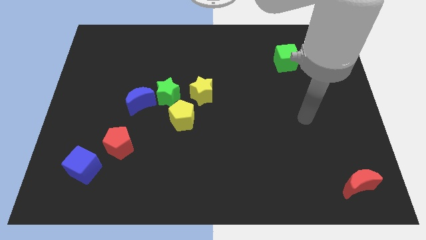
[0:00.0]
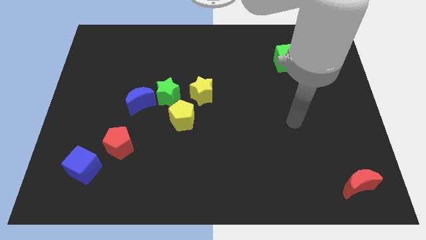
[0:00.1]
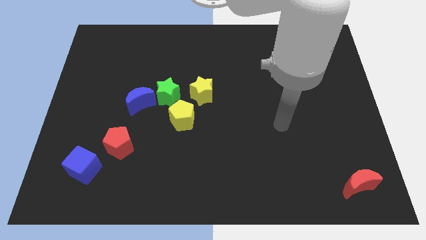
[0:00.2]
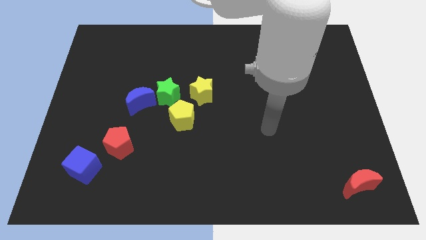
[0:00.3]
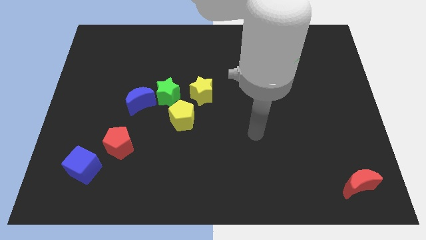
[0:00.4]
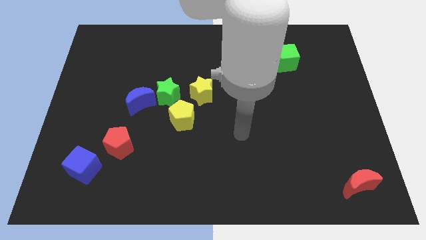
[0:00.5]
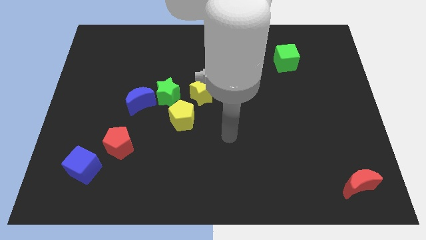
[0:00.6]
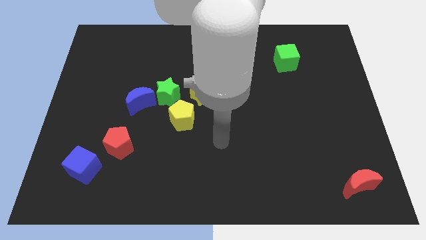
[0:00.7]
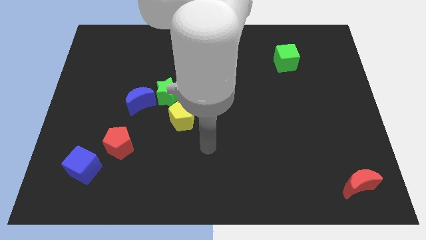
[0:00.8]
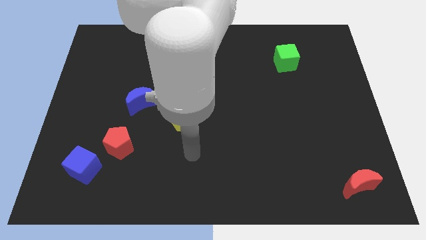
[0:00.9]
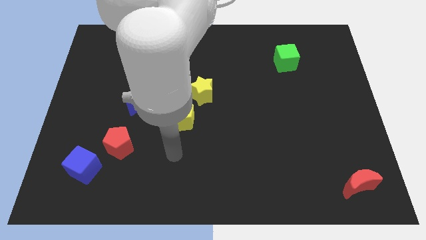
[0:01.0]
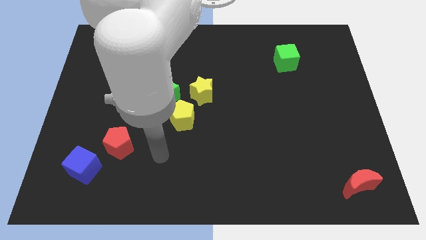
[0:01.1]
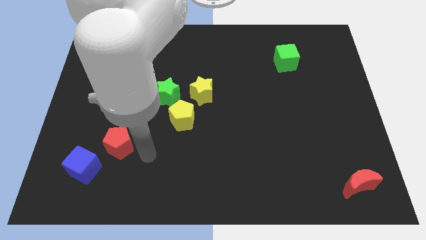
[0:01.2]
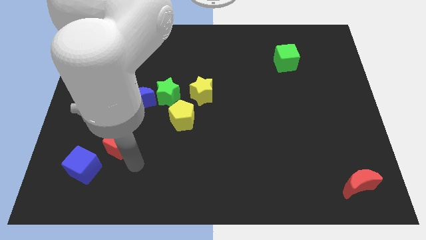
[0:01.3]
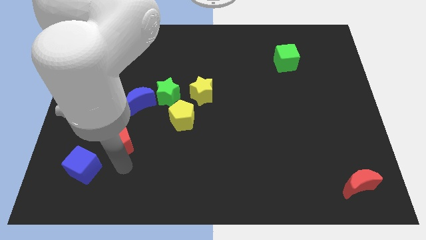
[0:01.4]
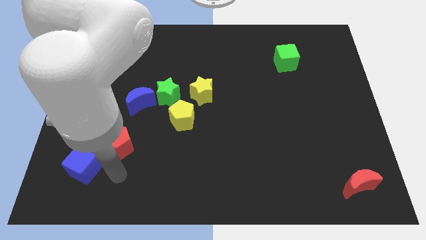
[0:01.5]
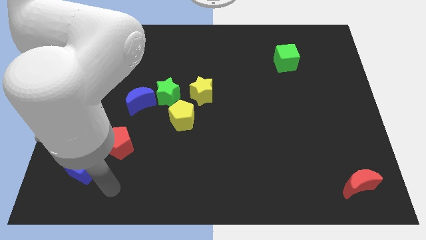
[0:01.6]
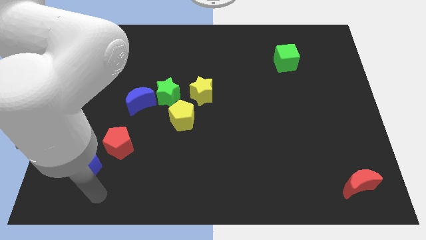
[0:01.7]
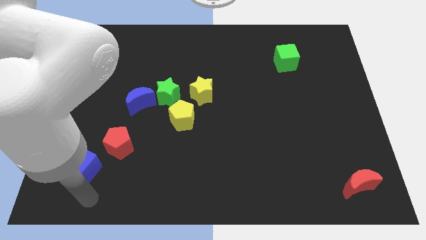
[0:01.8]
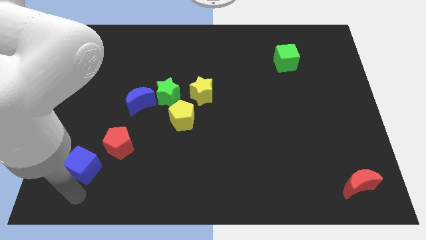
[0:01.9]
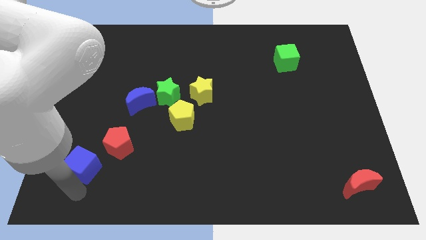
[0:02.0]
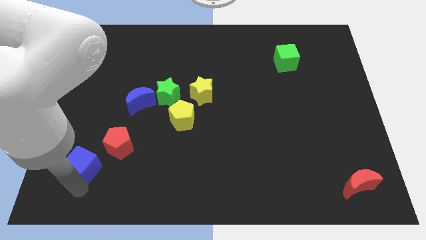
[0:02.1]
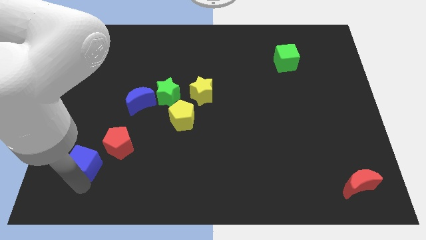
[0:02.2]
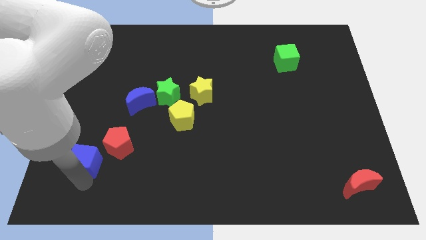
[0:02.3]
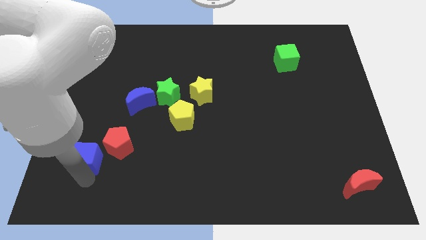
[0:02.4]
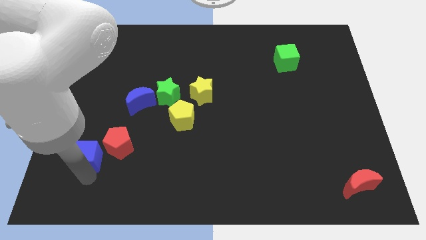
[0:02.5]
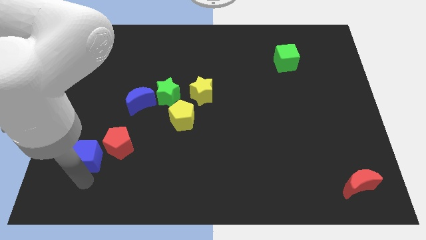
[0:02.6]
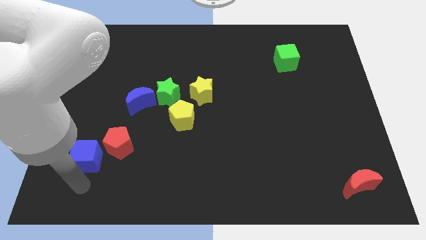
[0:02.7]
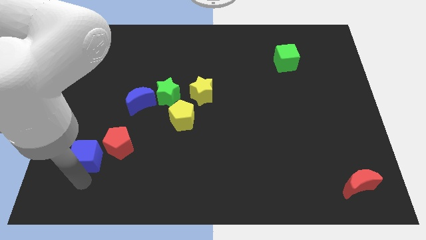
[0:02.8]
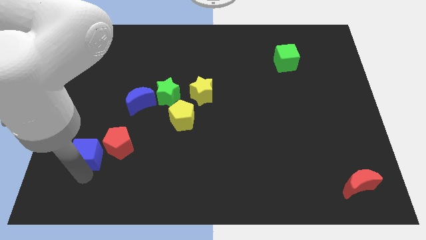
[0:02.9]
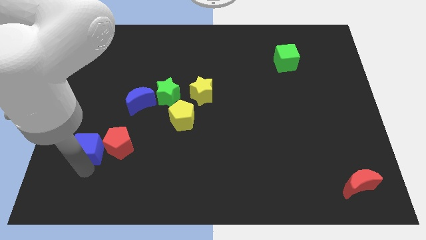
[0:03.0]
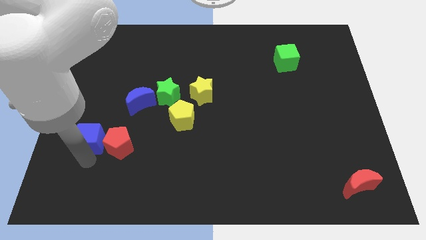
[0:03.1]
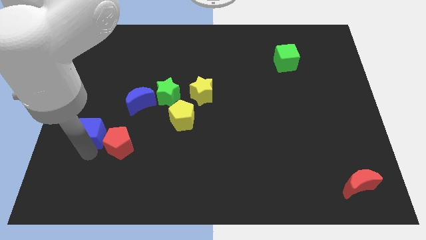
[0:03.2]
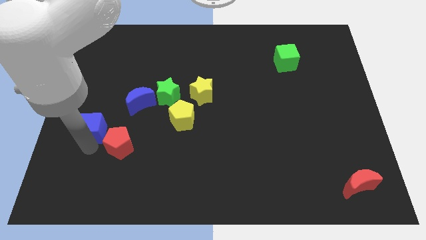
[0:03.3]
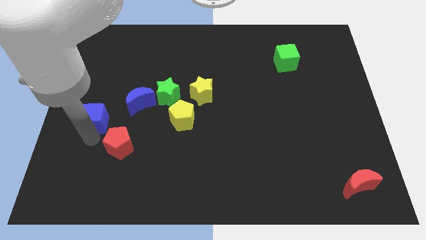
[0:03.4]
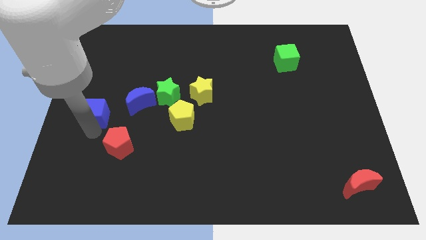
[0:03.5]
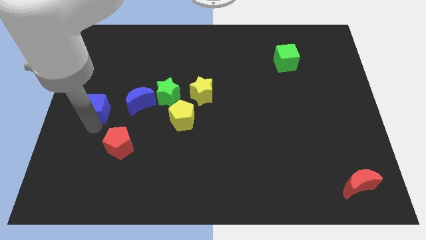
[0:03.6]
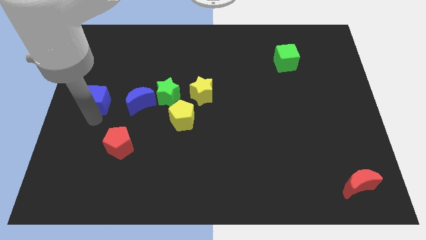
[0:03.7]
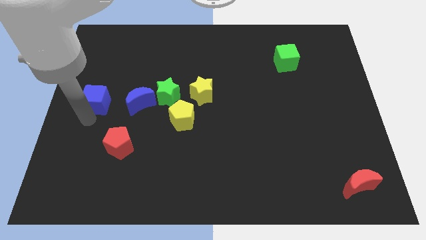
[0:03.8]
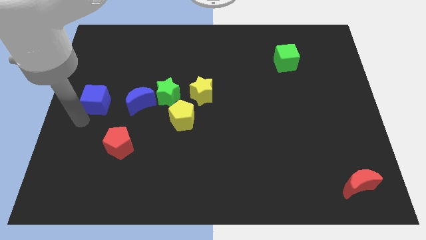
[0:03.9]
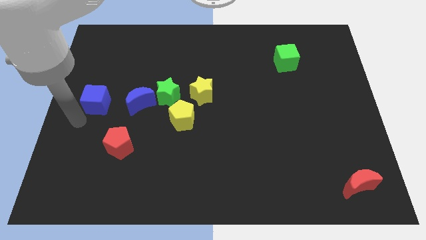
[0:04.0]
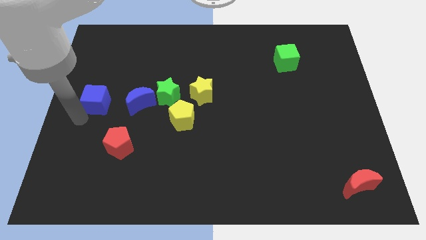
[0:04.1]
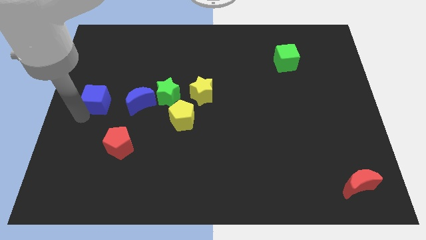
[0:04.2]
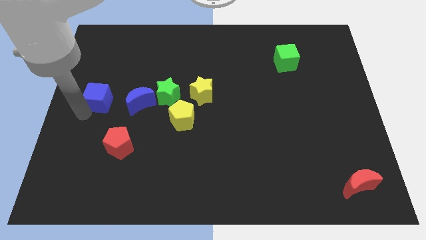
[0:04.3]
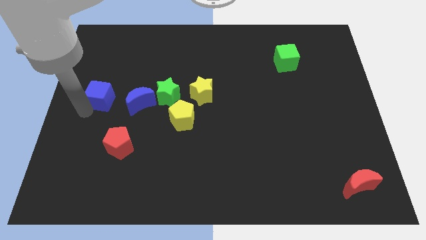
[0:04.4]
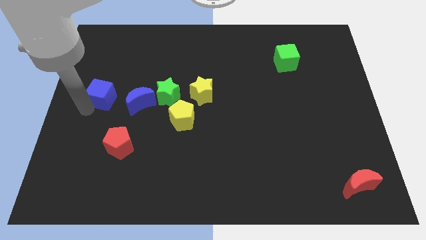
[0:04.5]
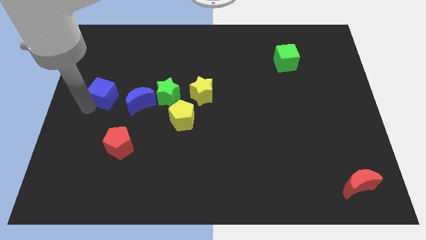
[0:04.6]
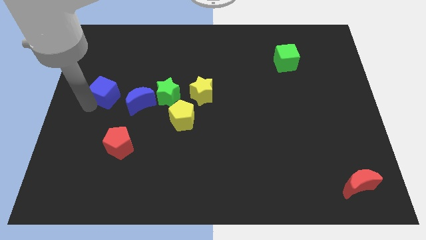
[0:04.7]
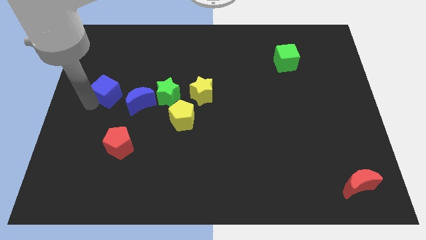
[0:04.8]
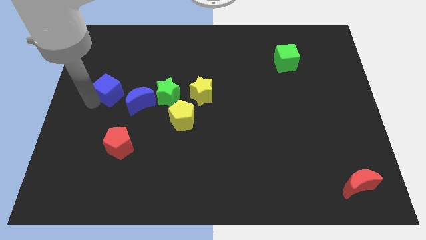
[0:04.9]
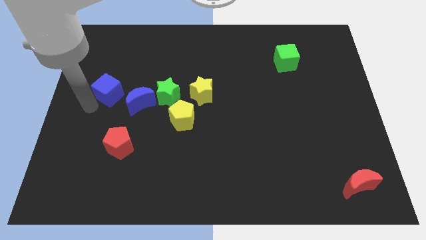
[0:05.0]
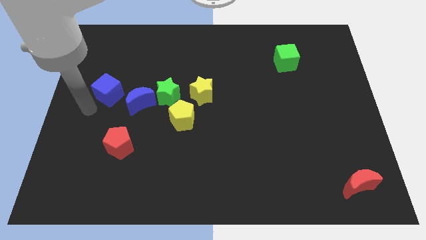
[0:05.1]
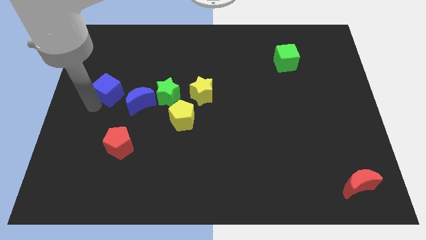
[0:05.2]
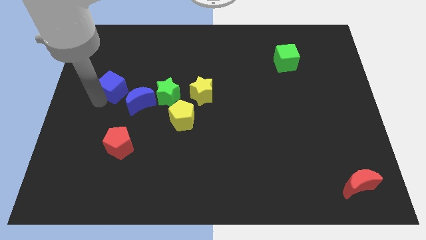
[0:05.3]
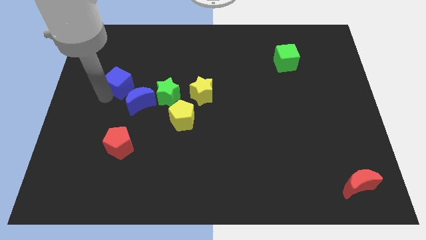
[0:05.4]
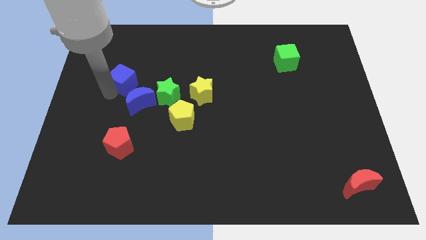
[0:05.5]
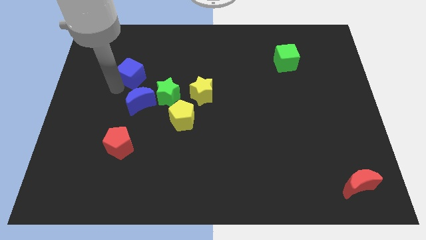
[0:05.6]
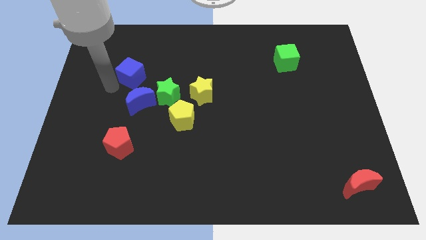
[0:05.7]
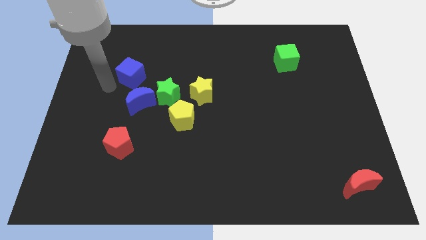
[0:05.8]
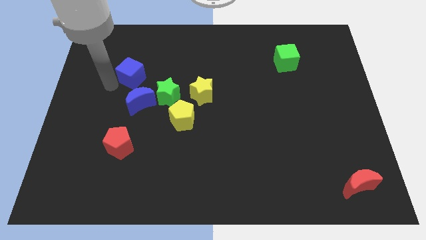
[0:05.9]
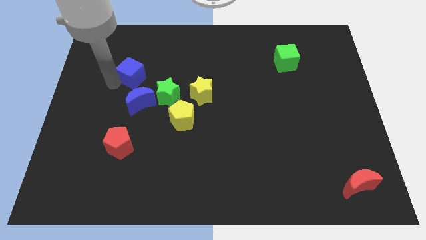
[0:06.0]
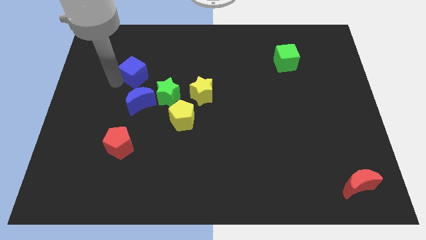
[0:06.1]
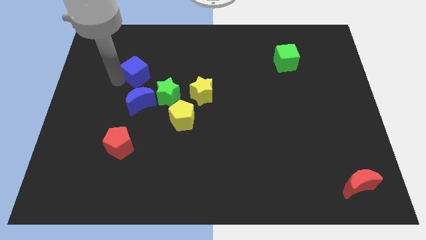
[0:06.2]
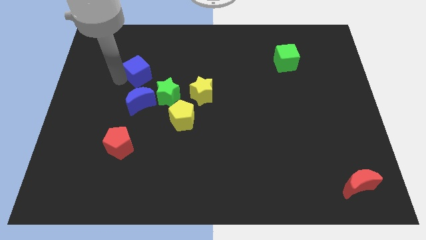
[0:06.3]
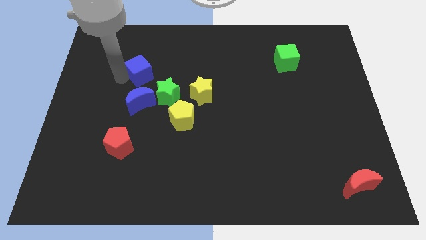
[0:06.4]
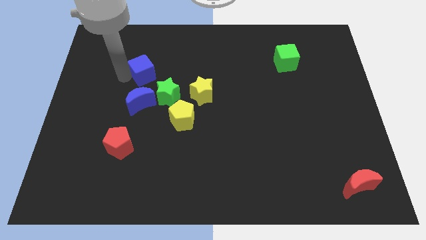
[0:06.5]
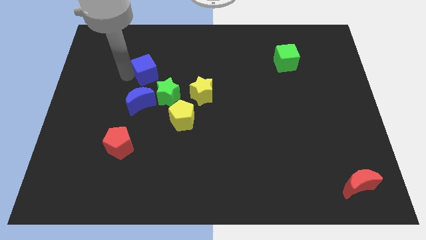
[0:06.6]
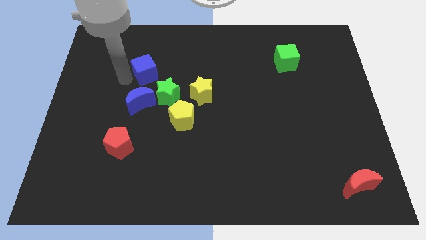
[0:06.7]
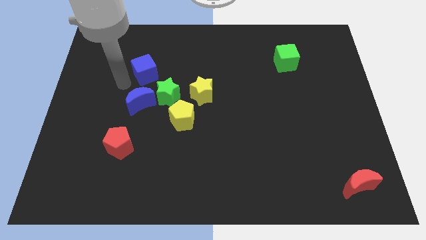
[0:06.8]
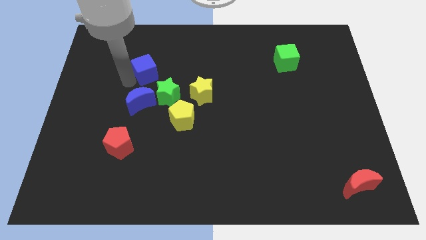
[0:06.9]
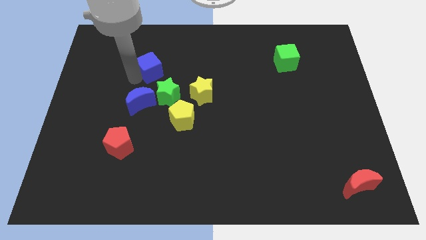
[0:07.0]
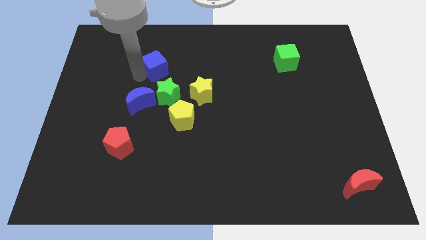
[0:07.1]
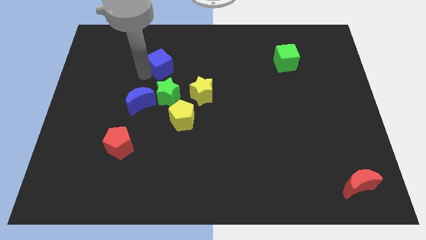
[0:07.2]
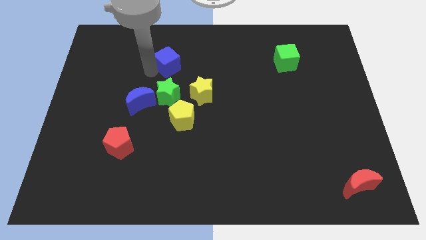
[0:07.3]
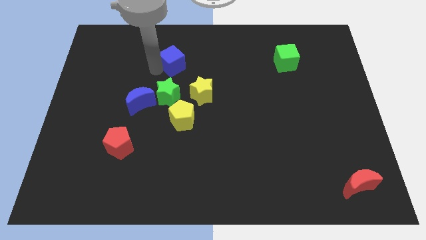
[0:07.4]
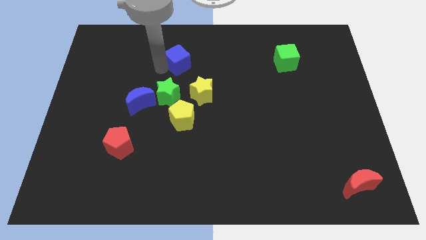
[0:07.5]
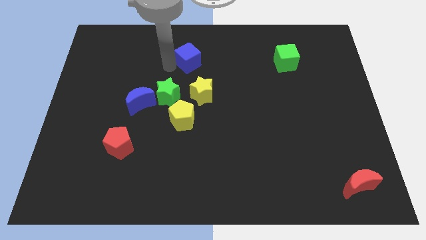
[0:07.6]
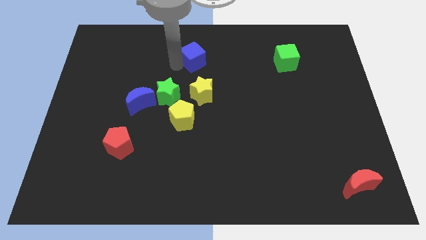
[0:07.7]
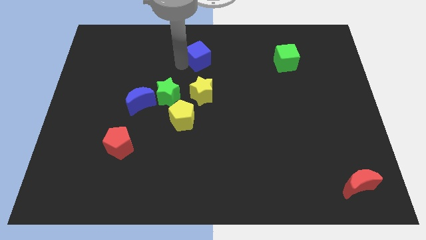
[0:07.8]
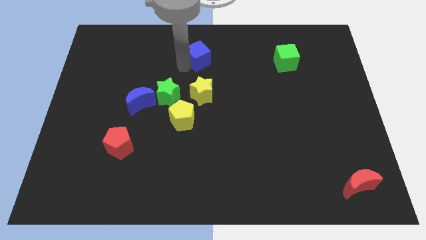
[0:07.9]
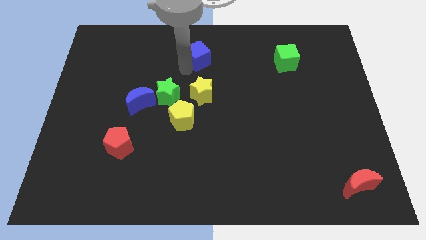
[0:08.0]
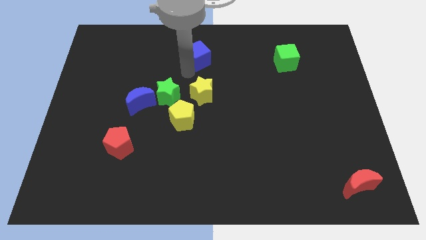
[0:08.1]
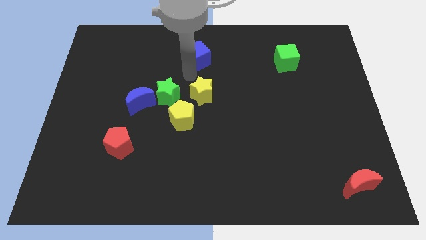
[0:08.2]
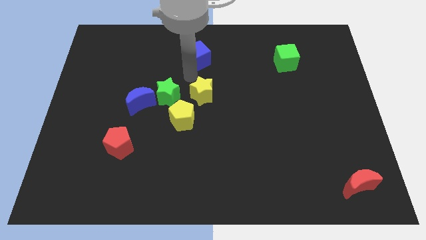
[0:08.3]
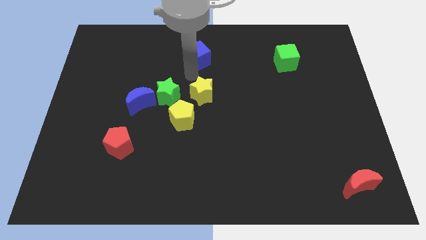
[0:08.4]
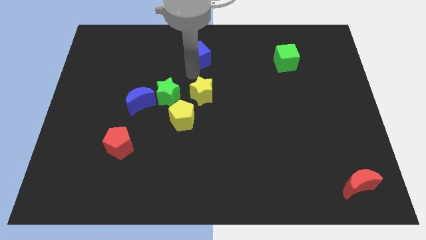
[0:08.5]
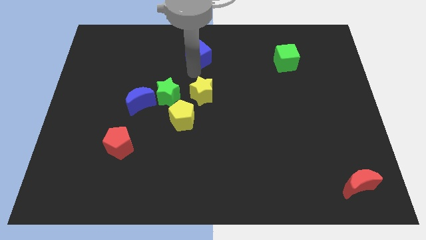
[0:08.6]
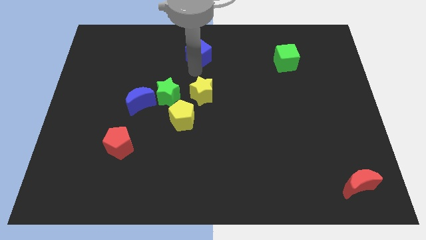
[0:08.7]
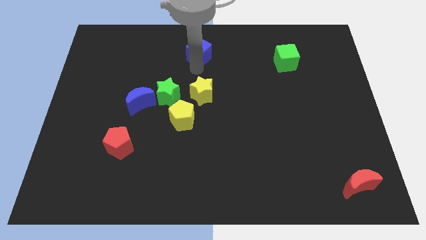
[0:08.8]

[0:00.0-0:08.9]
put the blue cube to the top side
